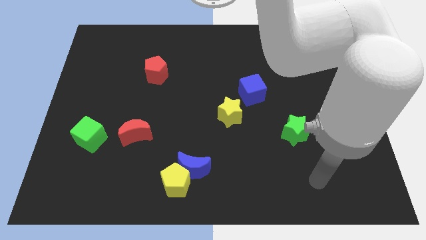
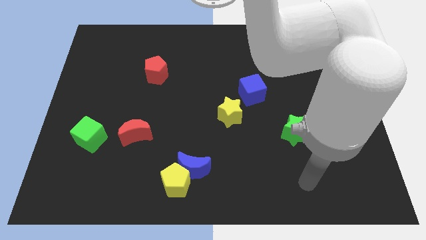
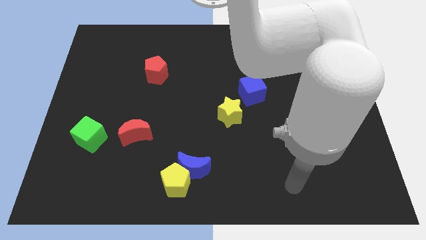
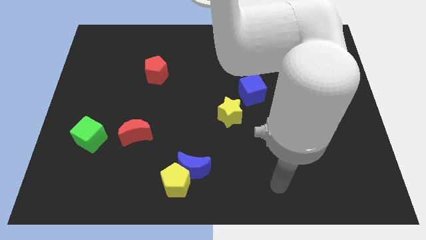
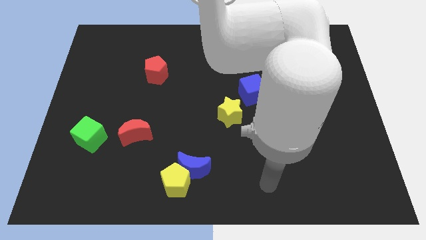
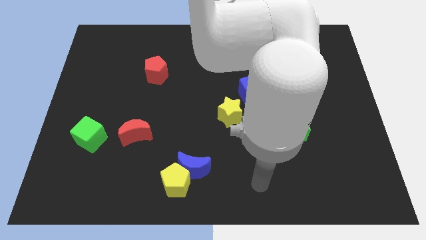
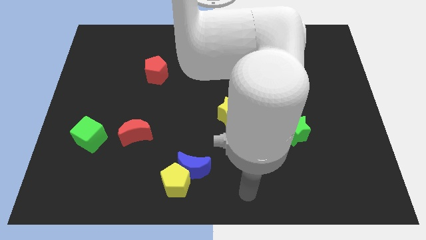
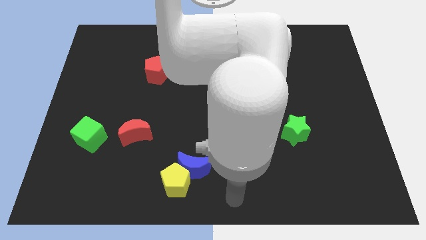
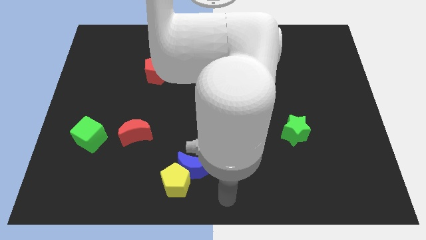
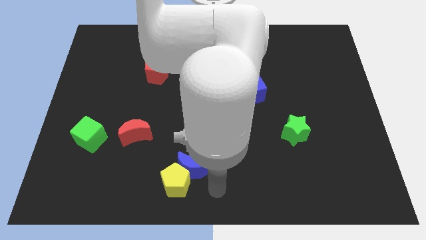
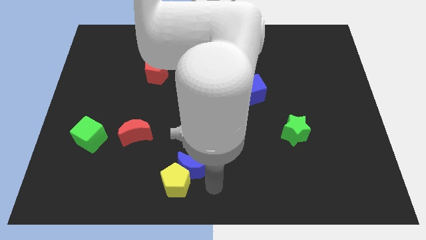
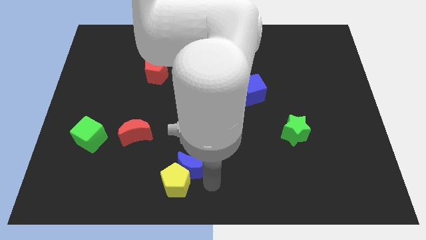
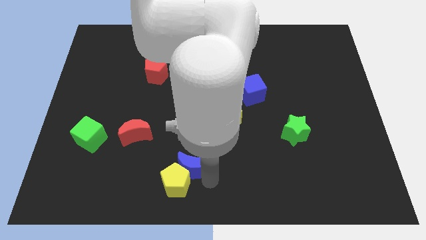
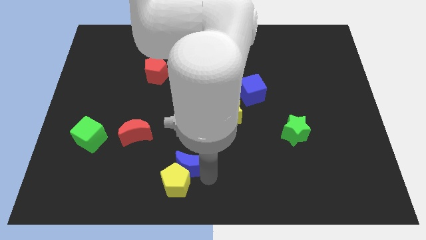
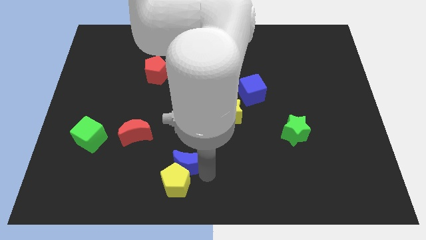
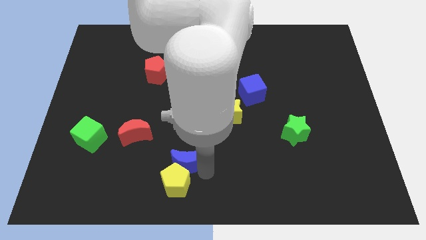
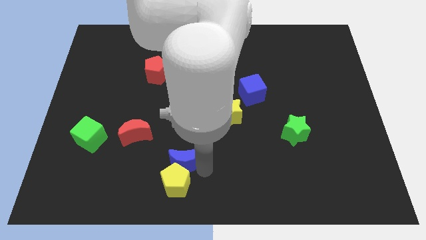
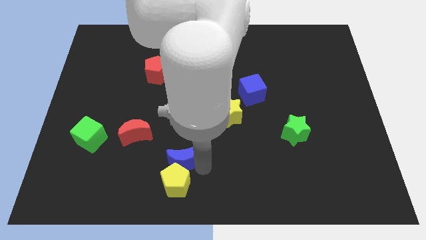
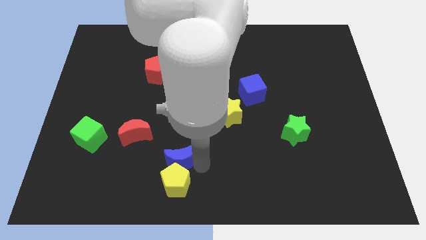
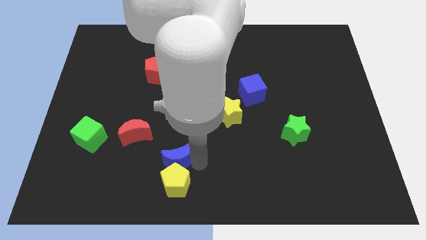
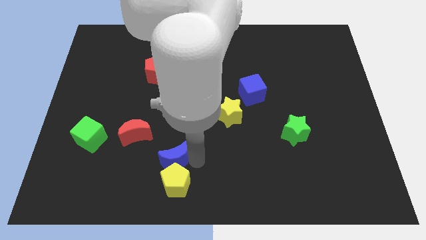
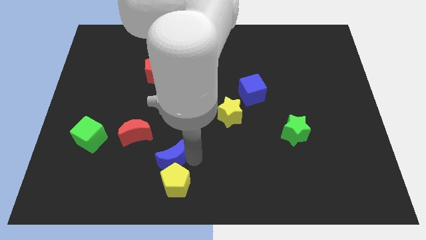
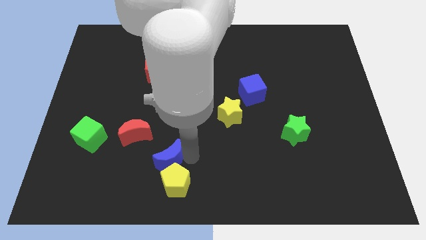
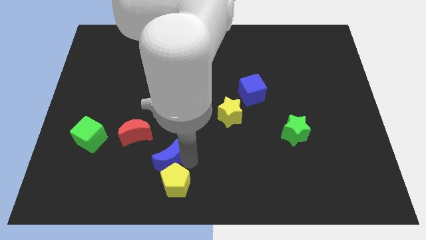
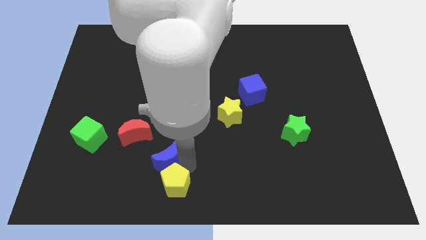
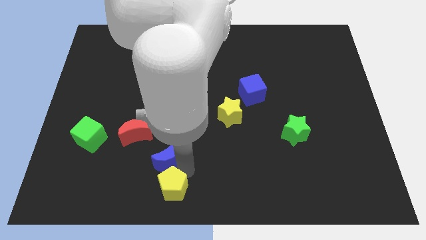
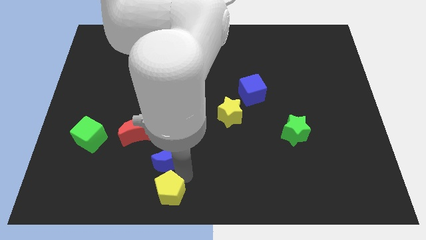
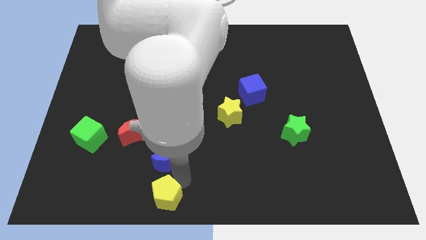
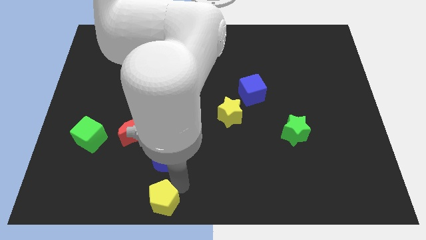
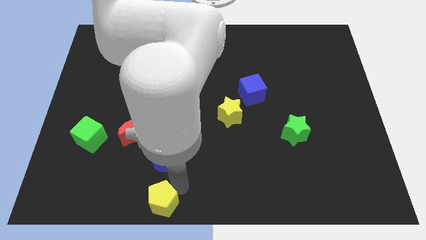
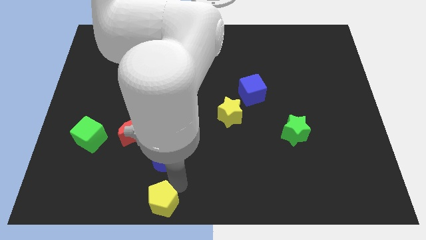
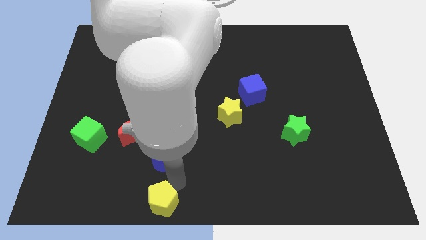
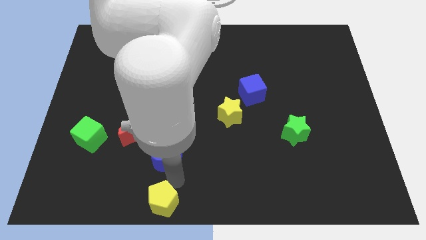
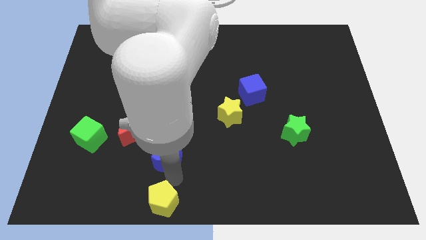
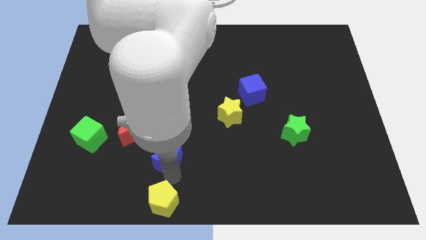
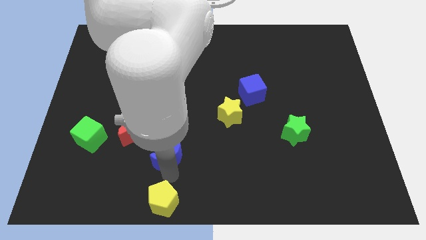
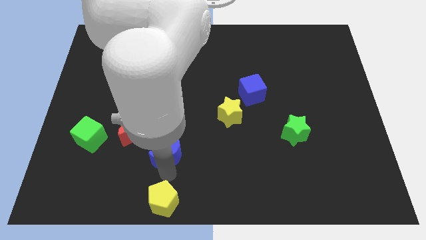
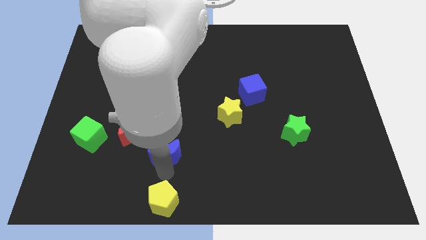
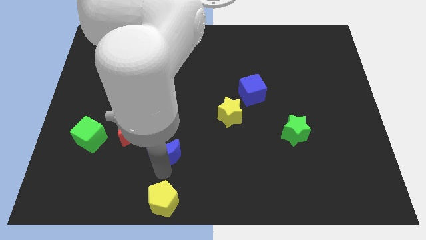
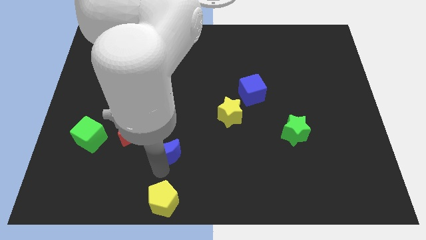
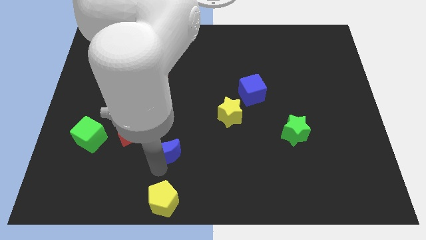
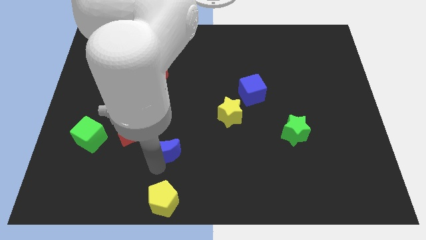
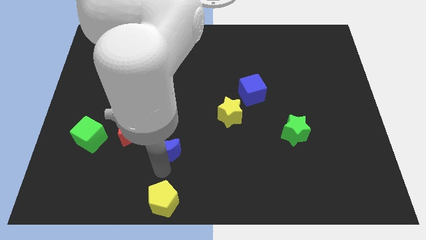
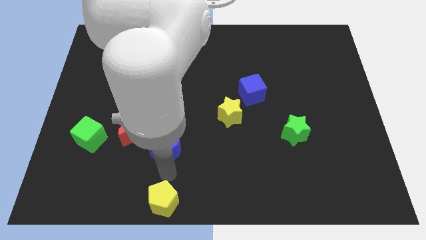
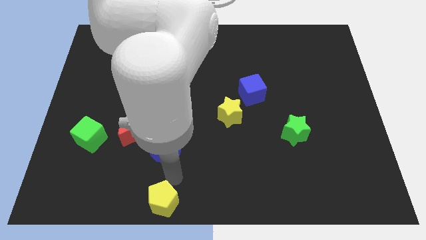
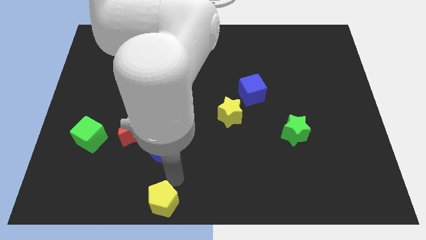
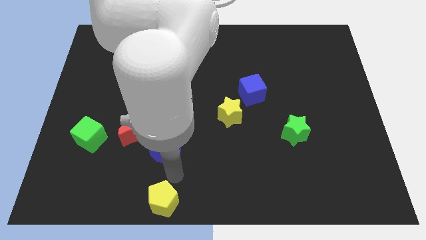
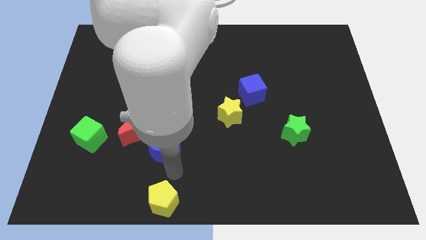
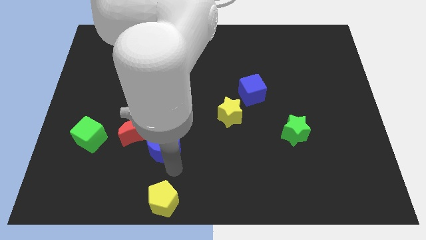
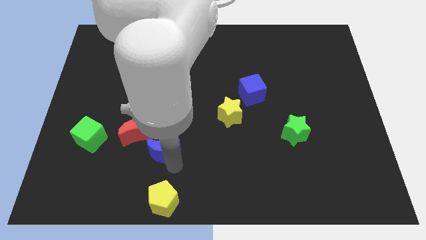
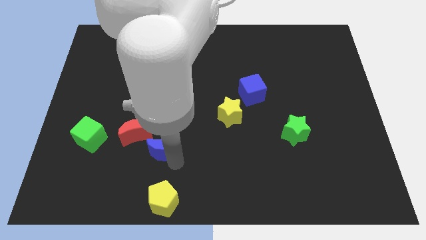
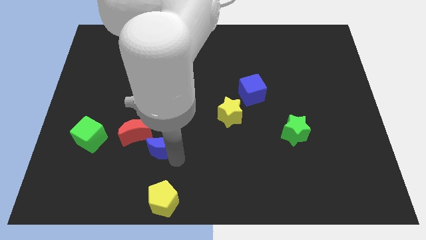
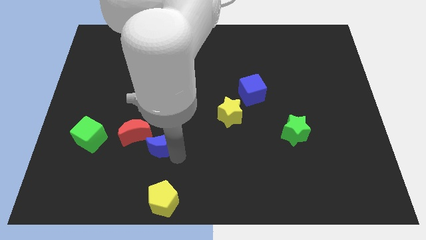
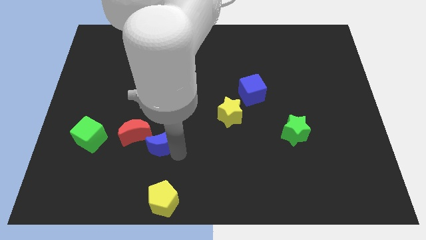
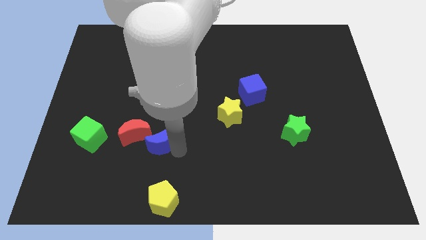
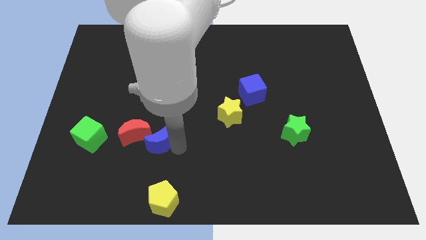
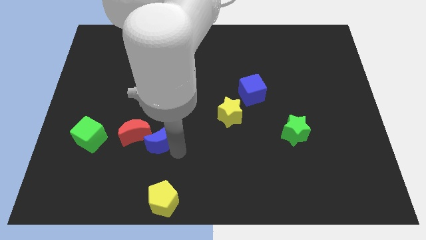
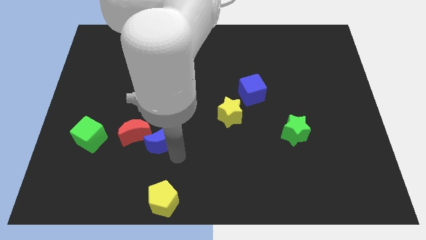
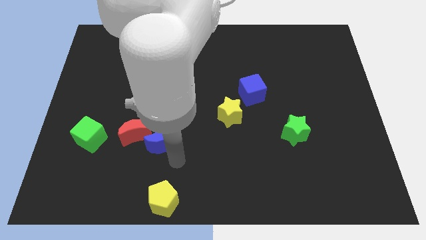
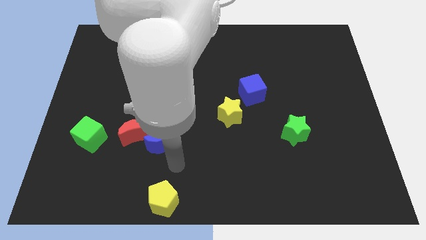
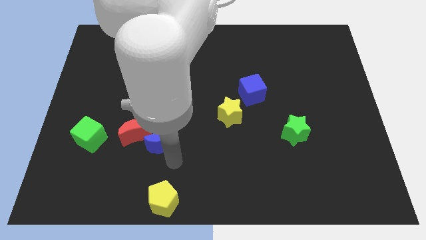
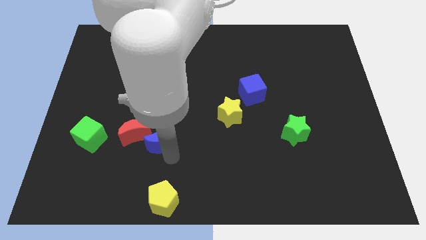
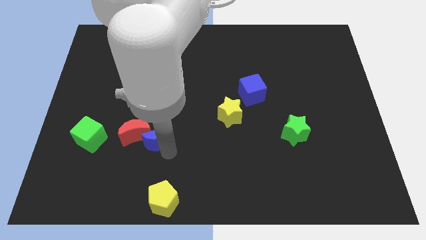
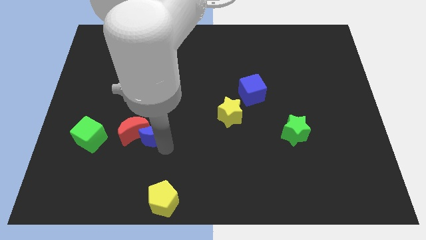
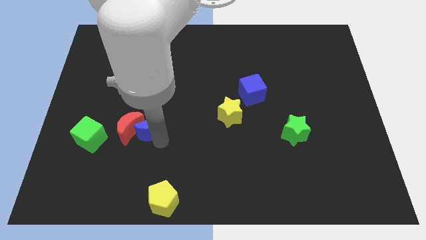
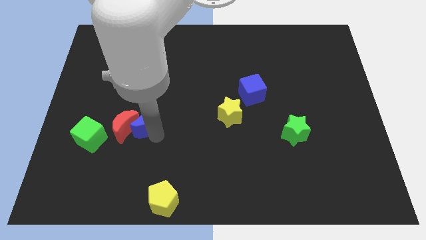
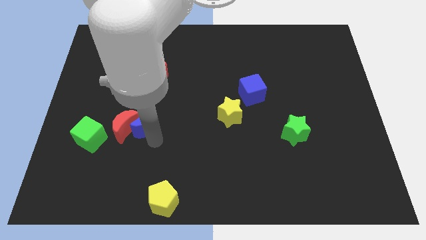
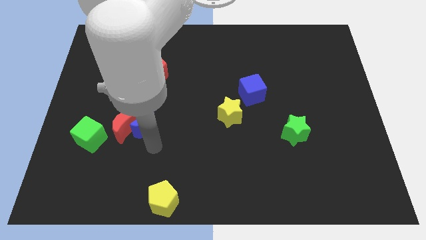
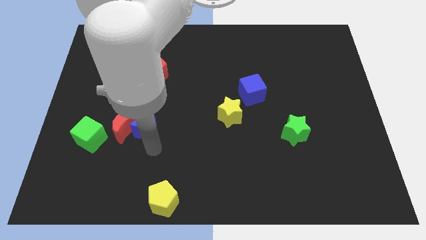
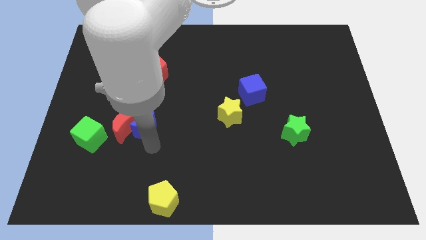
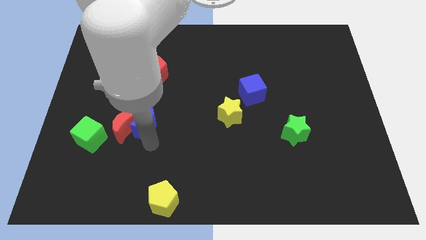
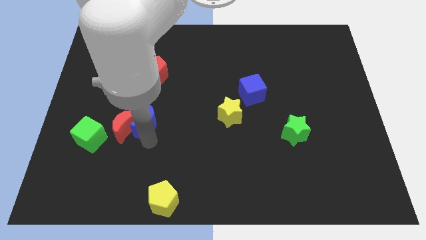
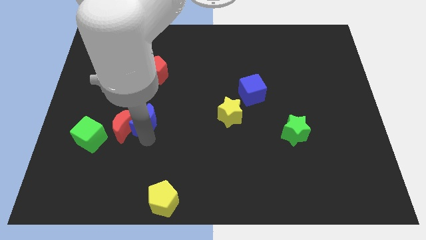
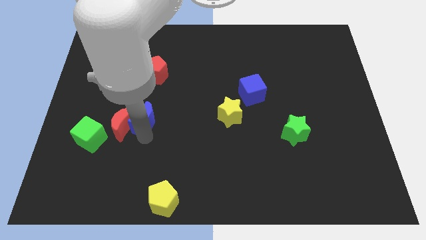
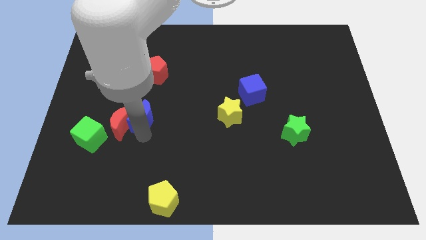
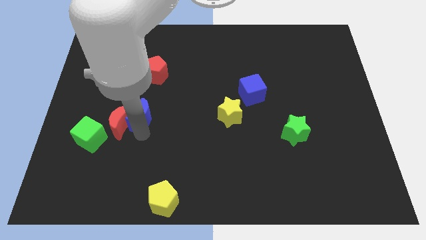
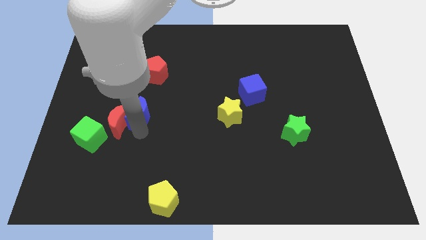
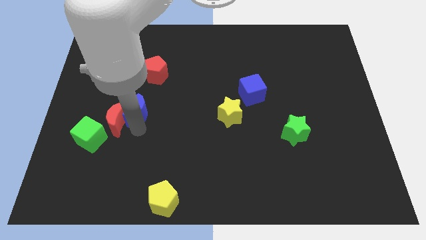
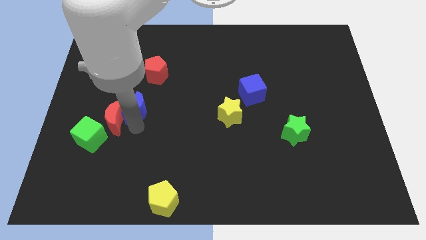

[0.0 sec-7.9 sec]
slide the blue moon diagonally upwards and to the left
